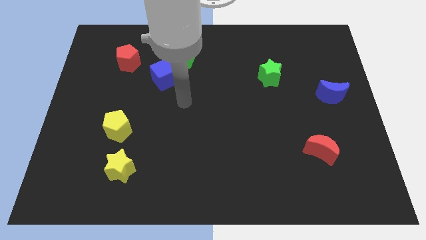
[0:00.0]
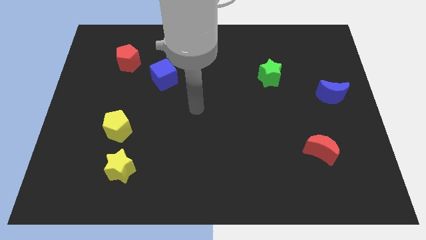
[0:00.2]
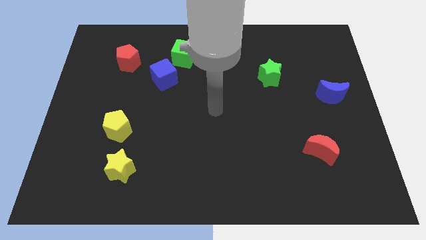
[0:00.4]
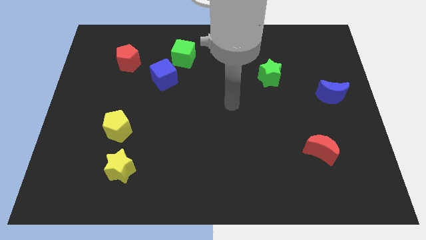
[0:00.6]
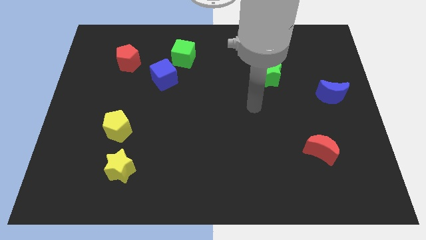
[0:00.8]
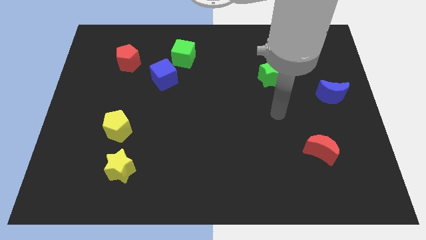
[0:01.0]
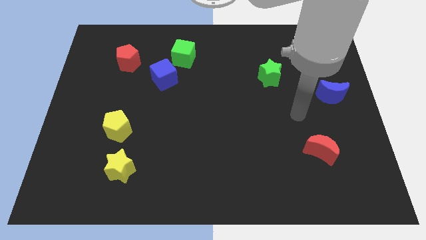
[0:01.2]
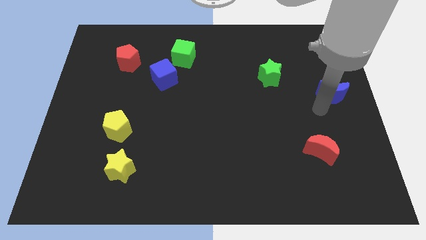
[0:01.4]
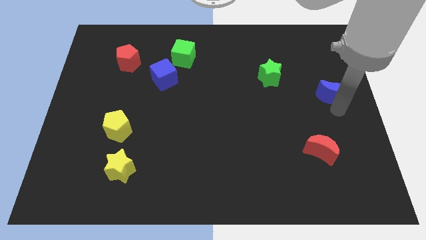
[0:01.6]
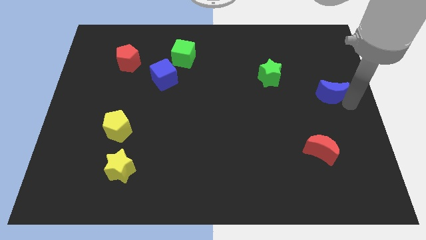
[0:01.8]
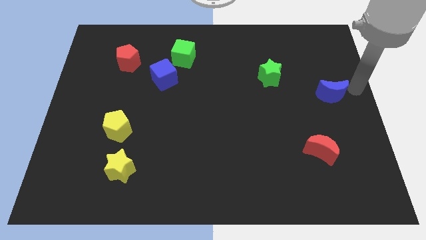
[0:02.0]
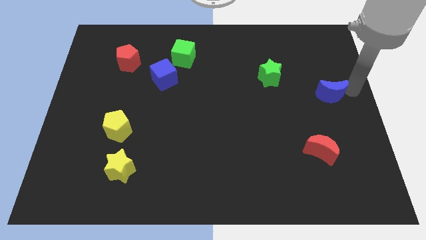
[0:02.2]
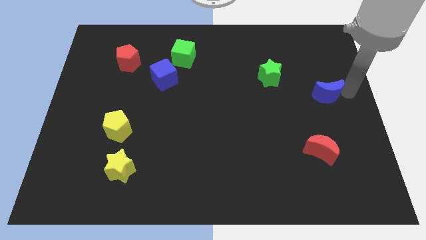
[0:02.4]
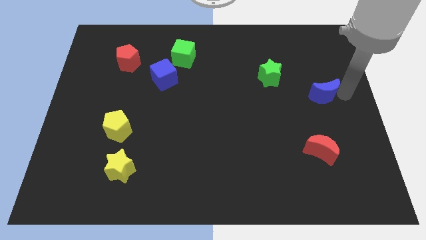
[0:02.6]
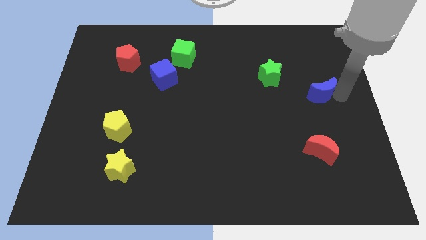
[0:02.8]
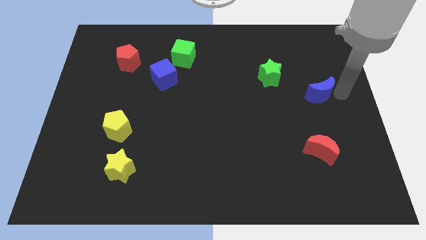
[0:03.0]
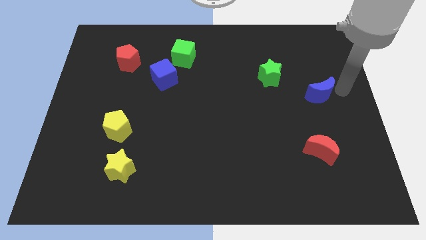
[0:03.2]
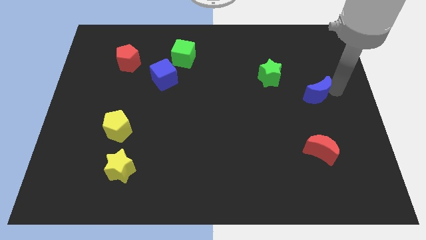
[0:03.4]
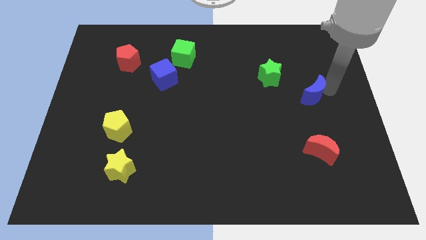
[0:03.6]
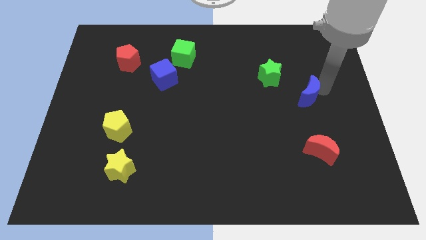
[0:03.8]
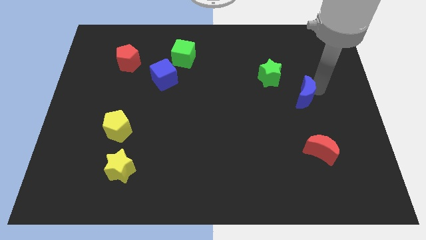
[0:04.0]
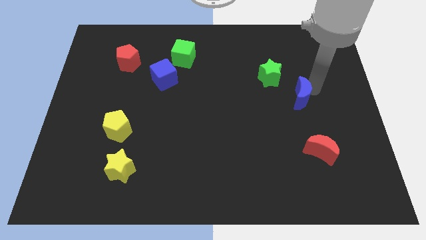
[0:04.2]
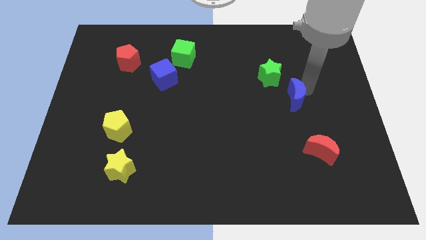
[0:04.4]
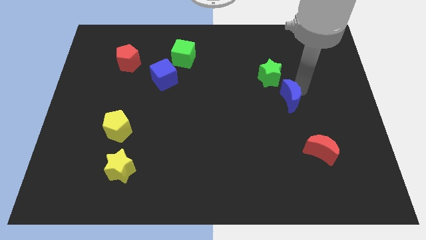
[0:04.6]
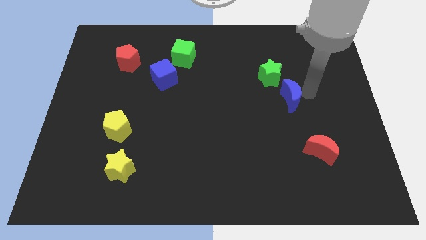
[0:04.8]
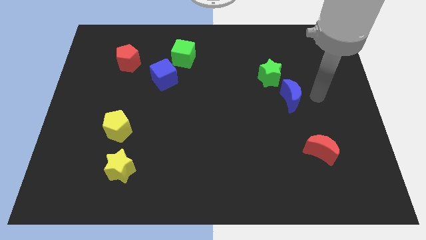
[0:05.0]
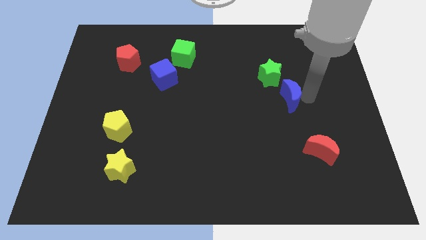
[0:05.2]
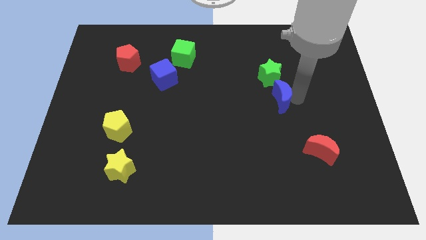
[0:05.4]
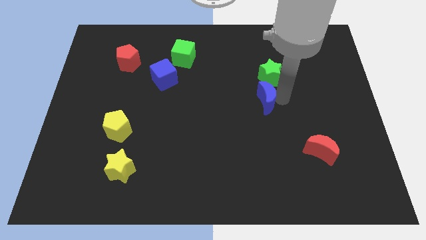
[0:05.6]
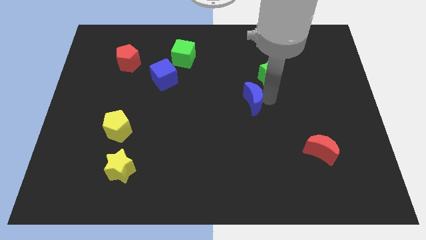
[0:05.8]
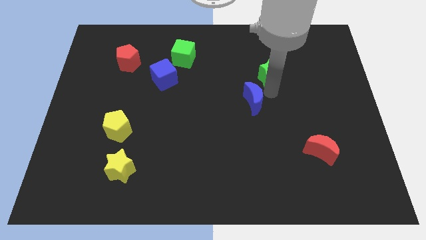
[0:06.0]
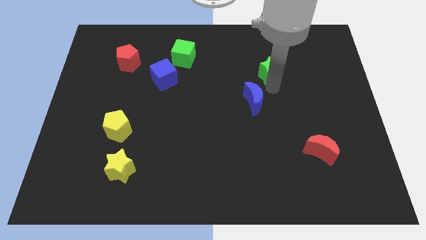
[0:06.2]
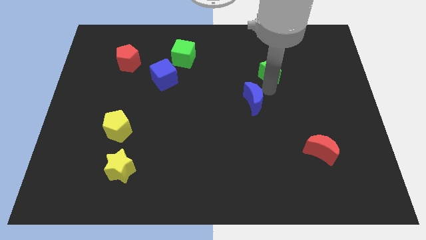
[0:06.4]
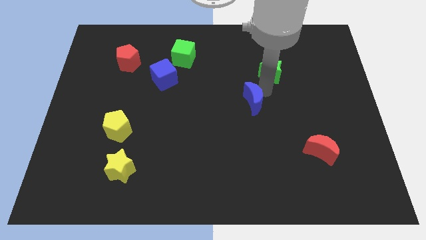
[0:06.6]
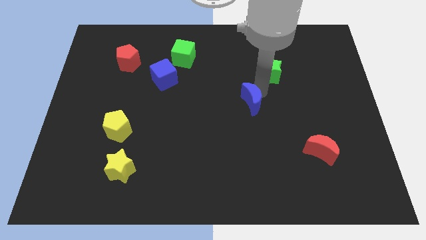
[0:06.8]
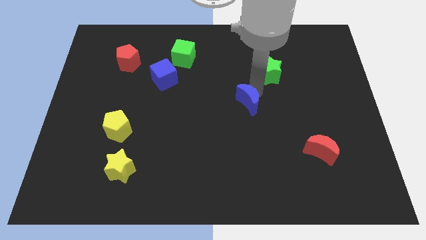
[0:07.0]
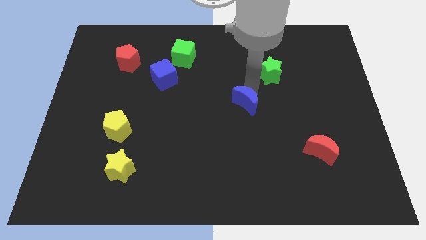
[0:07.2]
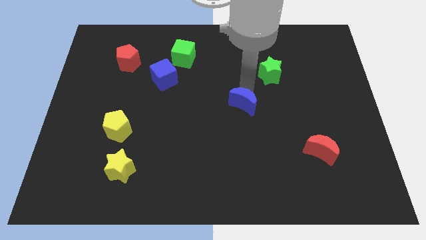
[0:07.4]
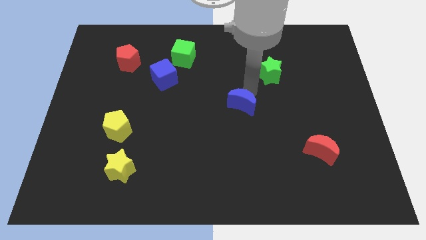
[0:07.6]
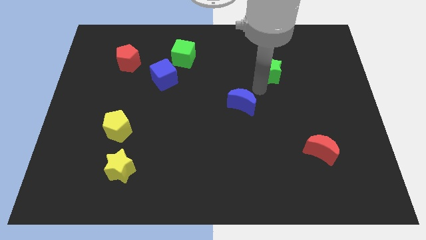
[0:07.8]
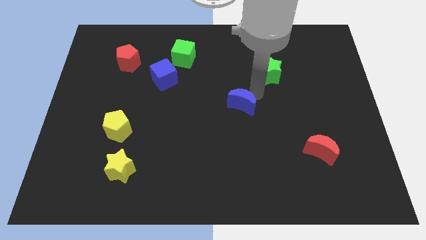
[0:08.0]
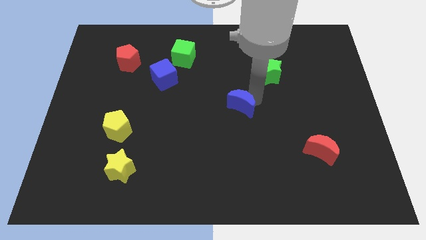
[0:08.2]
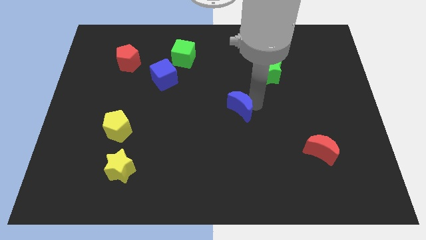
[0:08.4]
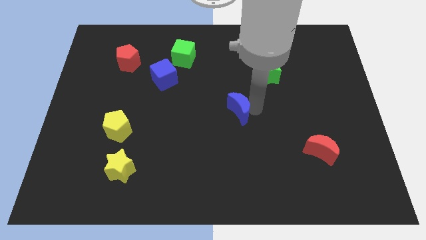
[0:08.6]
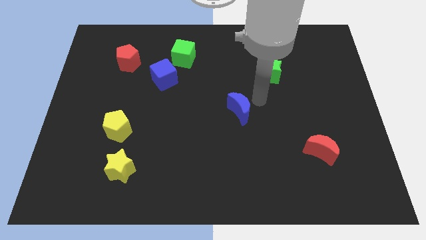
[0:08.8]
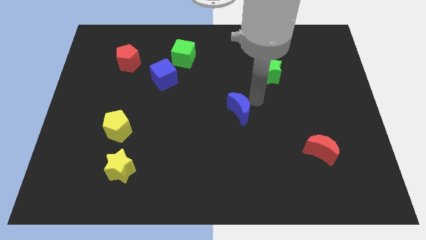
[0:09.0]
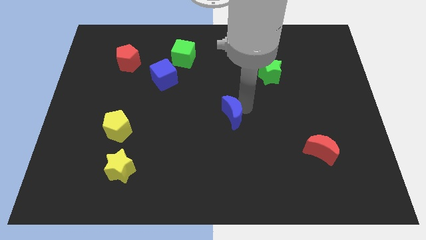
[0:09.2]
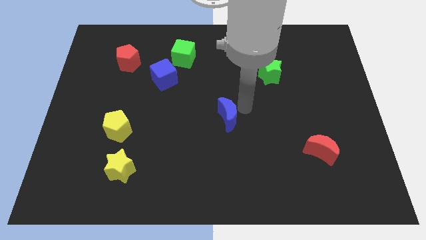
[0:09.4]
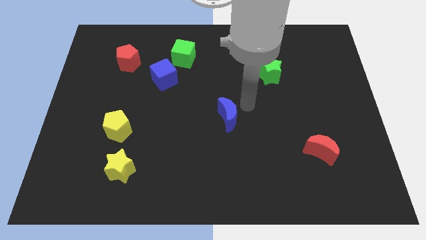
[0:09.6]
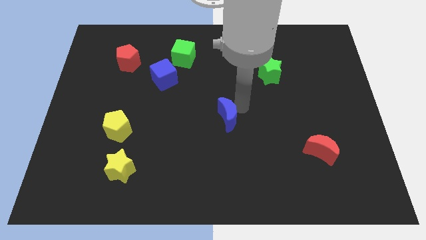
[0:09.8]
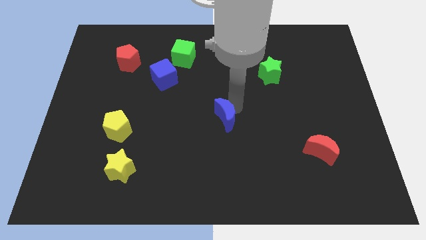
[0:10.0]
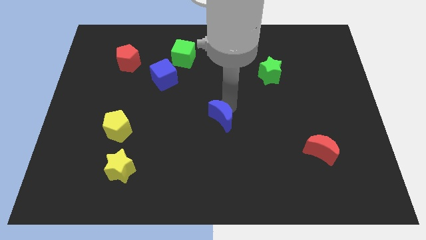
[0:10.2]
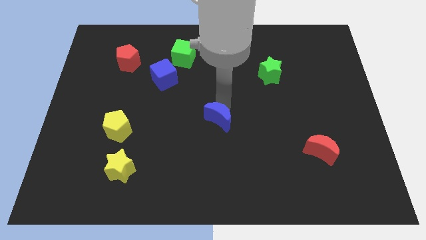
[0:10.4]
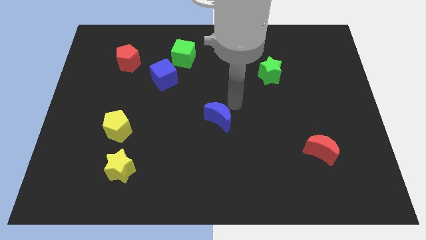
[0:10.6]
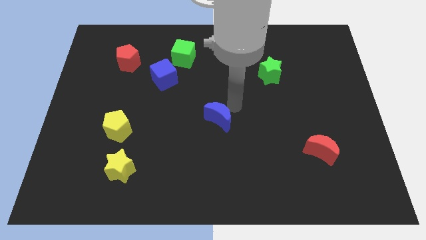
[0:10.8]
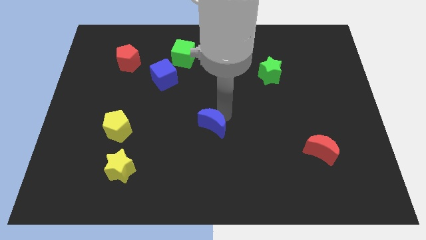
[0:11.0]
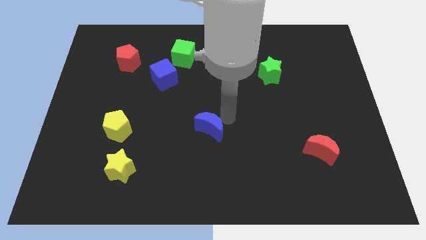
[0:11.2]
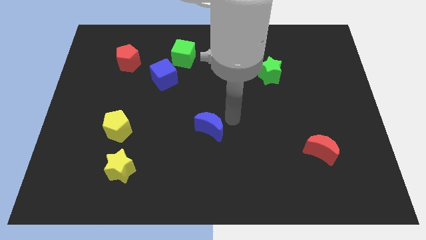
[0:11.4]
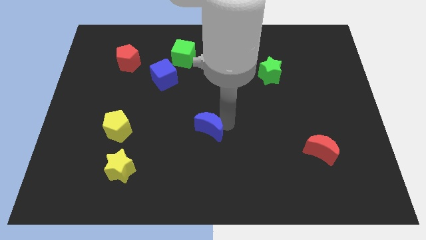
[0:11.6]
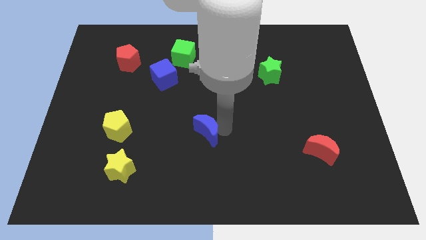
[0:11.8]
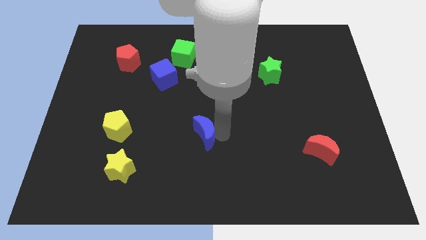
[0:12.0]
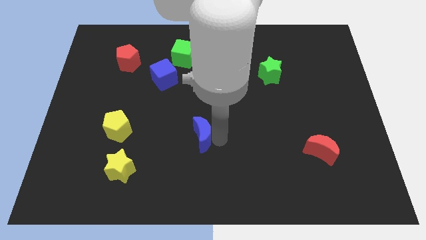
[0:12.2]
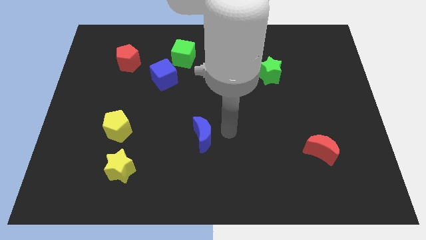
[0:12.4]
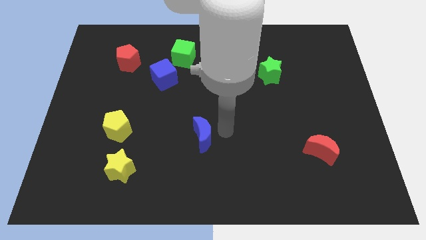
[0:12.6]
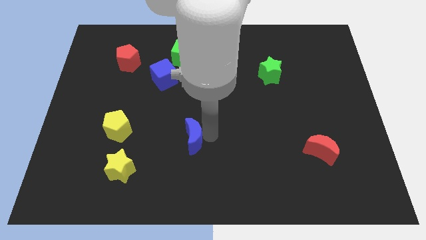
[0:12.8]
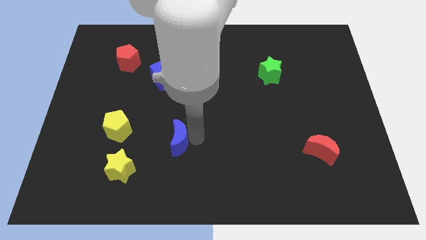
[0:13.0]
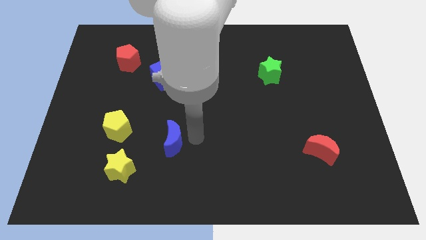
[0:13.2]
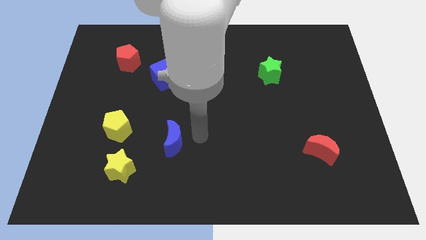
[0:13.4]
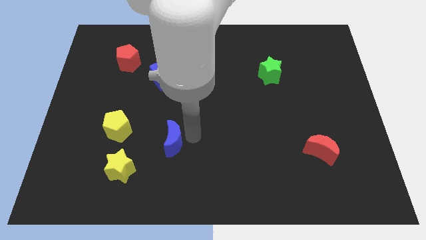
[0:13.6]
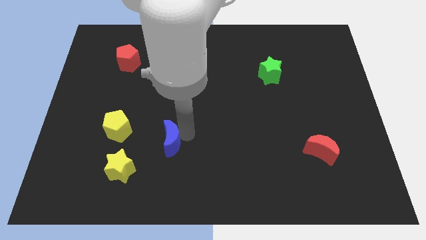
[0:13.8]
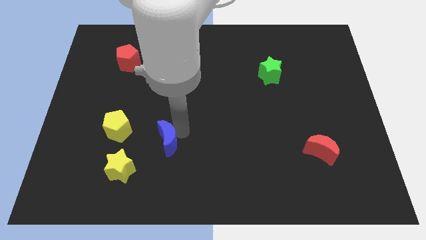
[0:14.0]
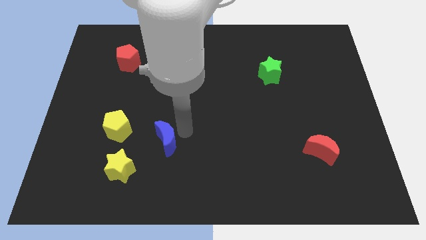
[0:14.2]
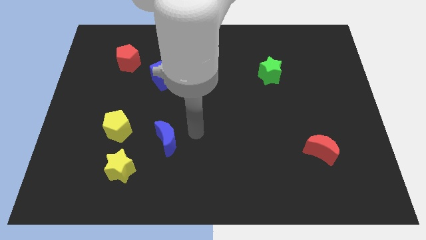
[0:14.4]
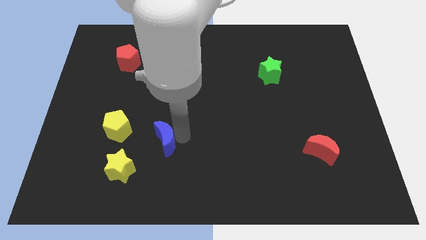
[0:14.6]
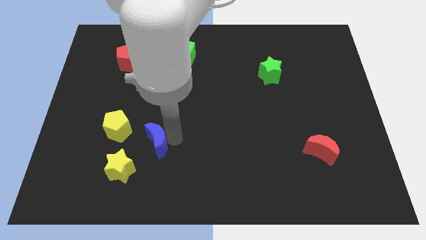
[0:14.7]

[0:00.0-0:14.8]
slide the blue moon to the bottom right of the yellow pentagon
